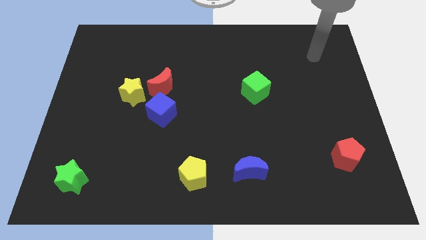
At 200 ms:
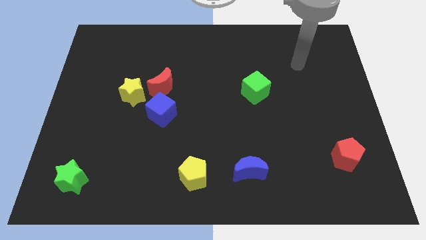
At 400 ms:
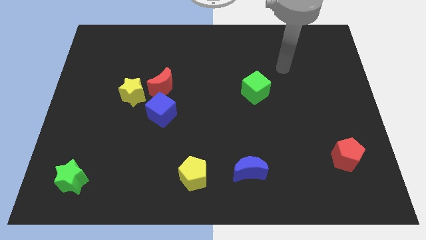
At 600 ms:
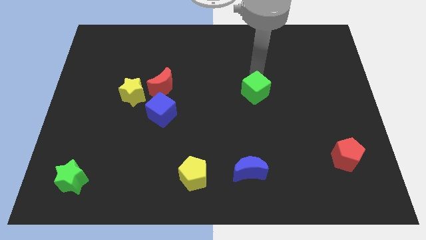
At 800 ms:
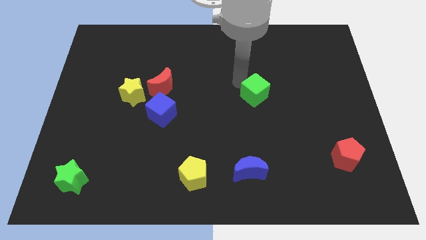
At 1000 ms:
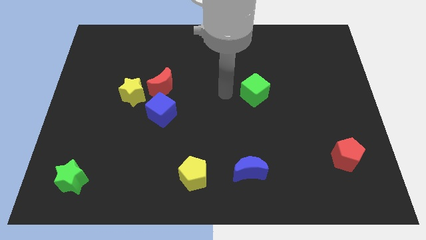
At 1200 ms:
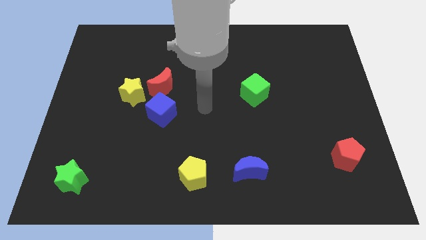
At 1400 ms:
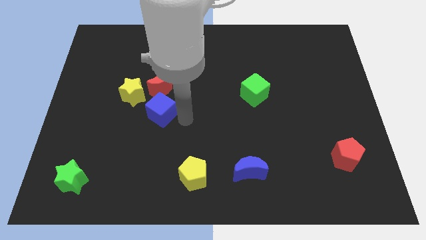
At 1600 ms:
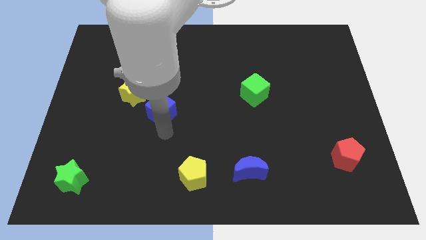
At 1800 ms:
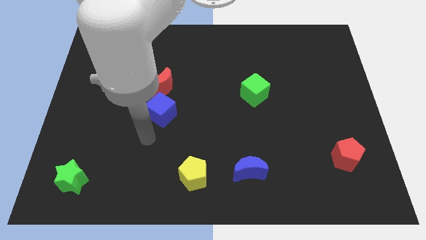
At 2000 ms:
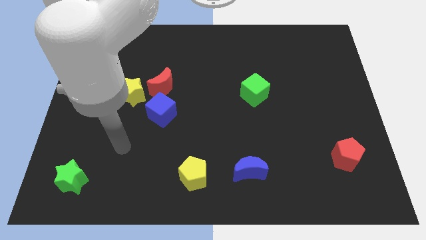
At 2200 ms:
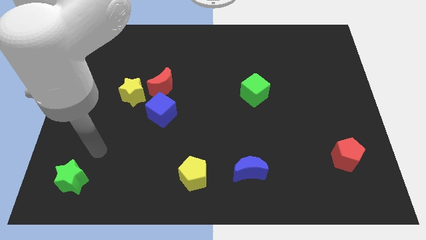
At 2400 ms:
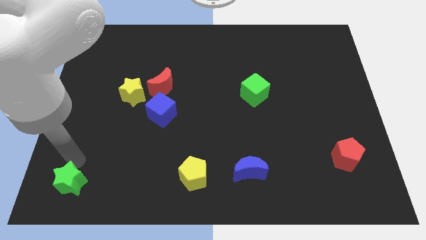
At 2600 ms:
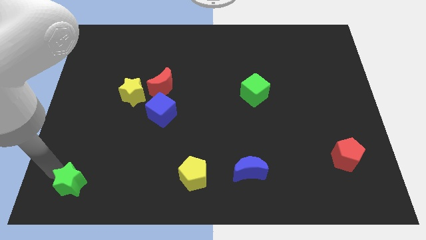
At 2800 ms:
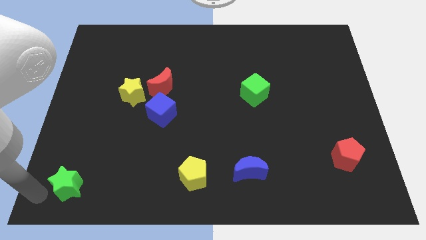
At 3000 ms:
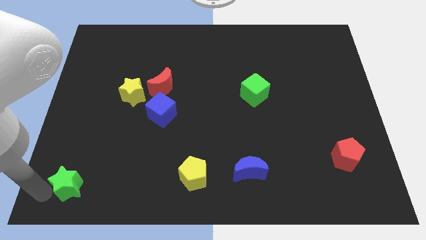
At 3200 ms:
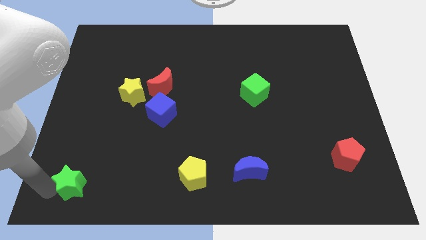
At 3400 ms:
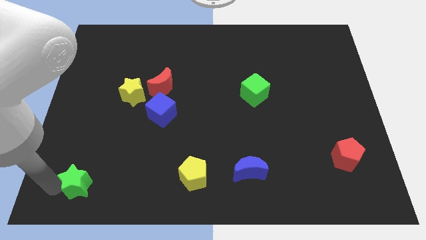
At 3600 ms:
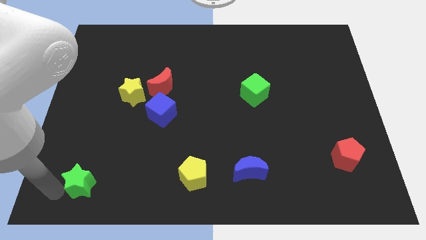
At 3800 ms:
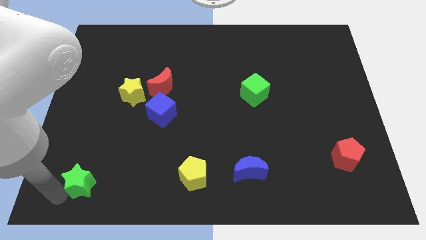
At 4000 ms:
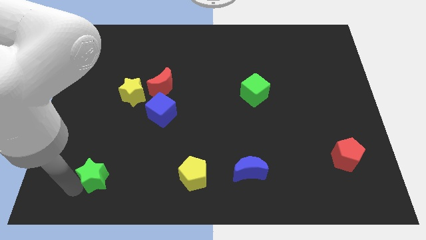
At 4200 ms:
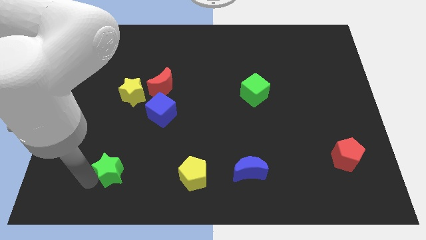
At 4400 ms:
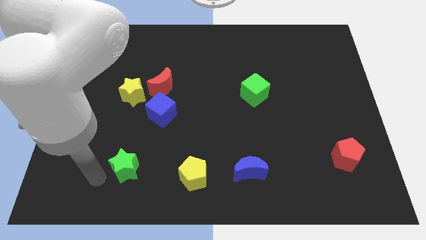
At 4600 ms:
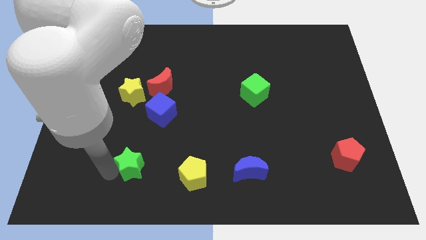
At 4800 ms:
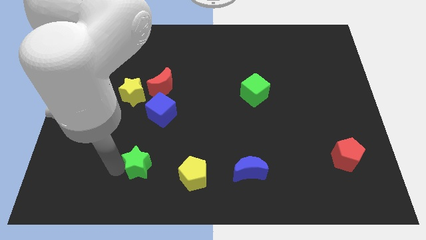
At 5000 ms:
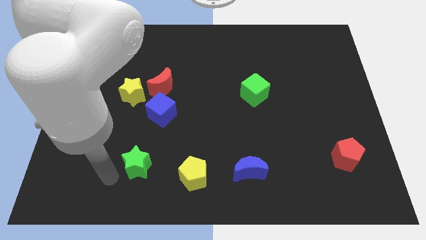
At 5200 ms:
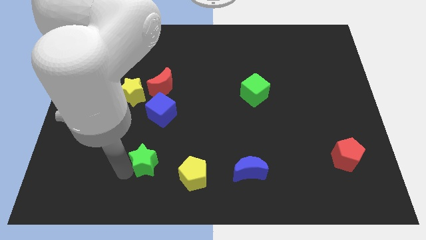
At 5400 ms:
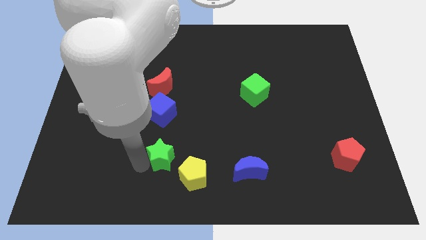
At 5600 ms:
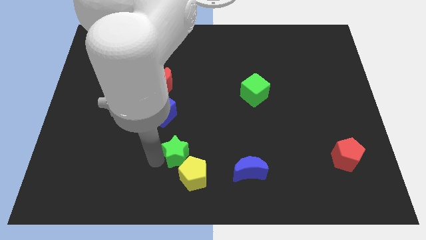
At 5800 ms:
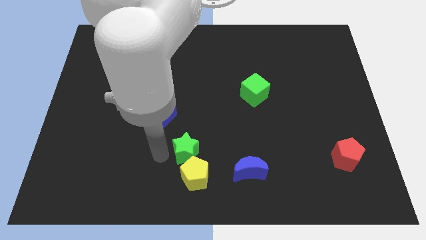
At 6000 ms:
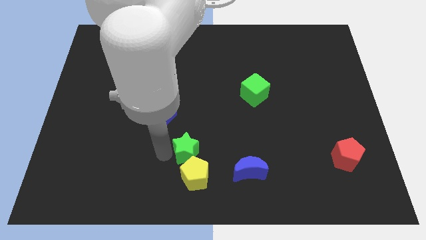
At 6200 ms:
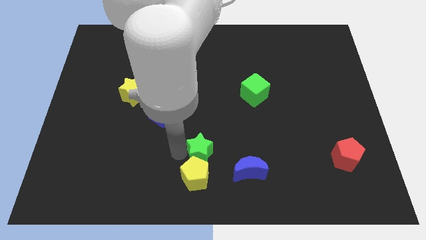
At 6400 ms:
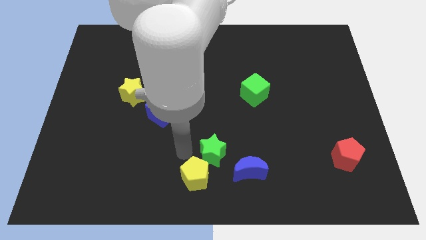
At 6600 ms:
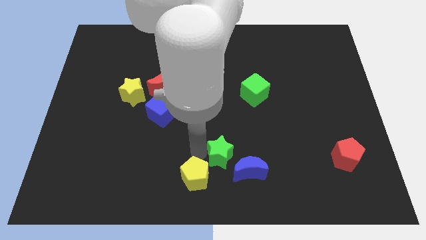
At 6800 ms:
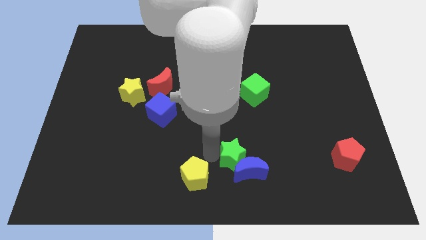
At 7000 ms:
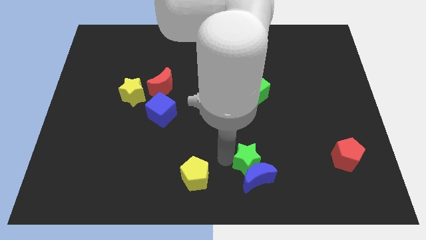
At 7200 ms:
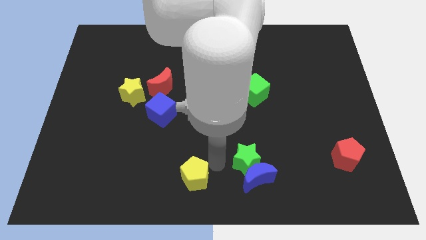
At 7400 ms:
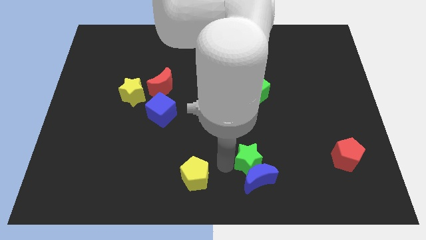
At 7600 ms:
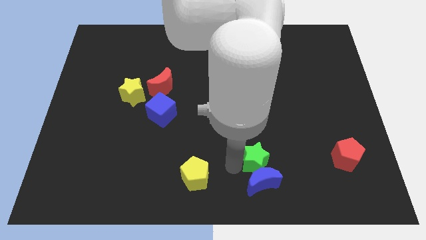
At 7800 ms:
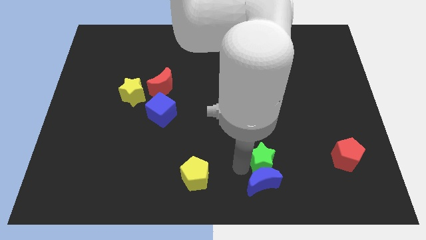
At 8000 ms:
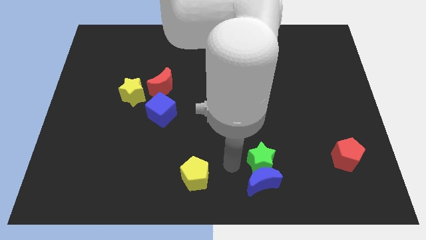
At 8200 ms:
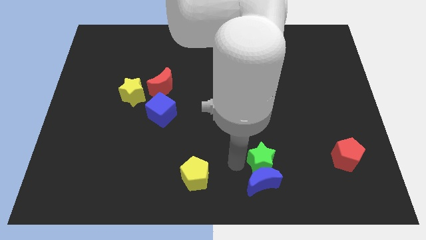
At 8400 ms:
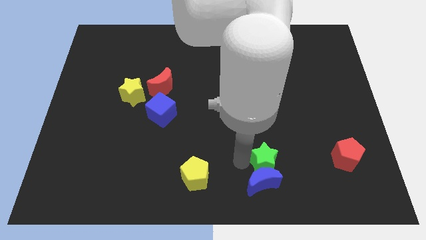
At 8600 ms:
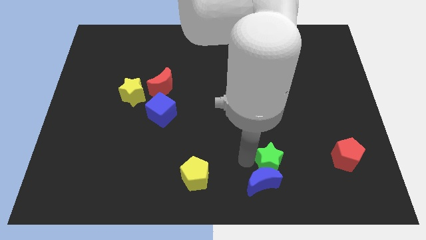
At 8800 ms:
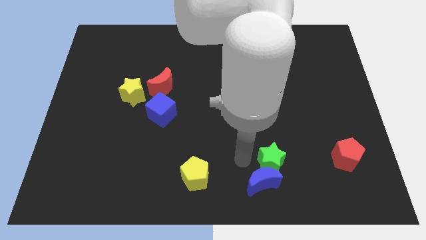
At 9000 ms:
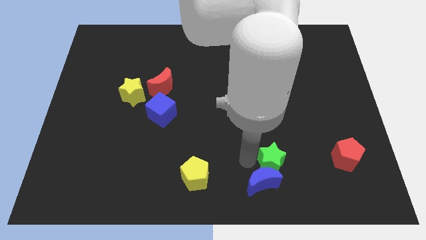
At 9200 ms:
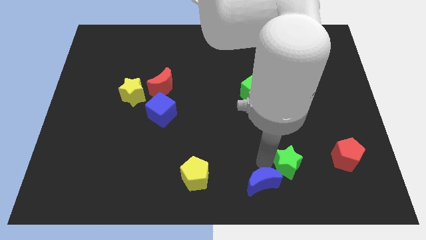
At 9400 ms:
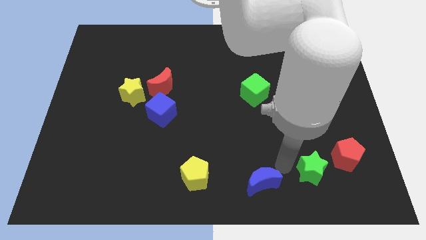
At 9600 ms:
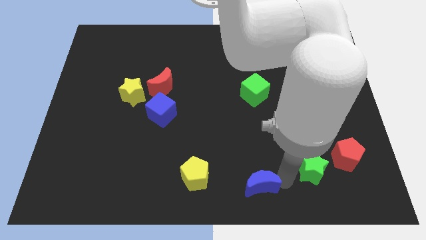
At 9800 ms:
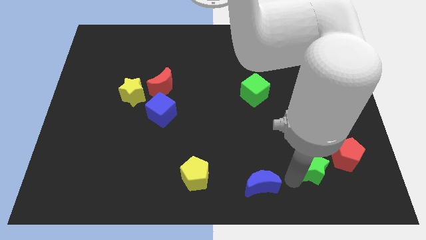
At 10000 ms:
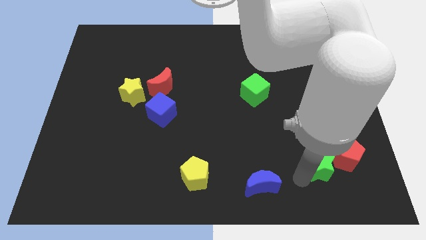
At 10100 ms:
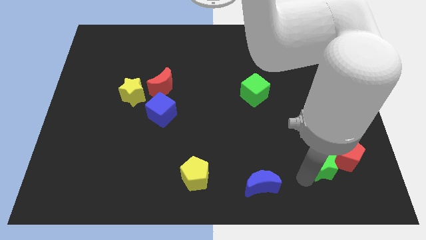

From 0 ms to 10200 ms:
push the green star close to the red pentagon

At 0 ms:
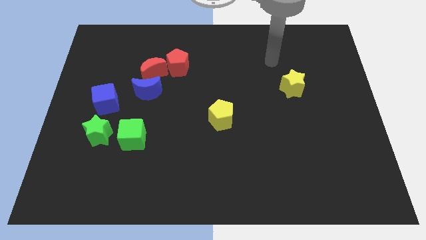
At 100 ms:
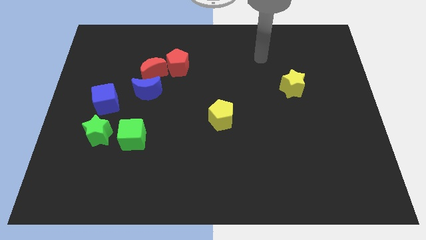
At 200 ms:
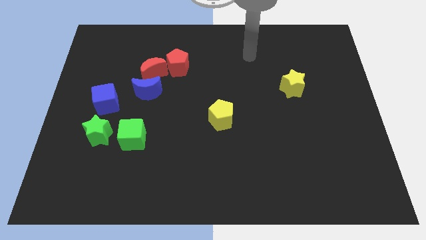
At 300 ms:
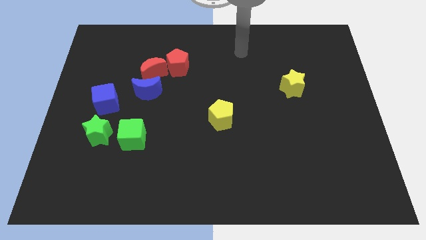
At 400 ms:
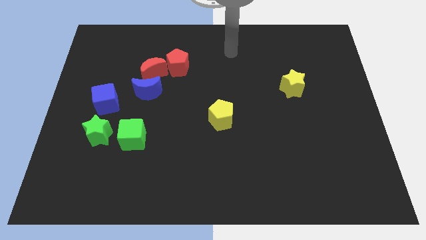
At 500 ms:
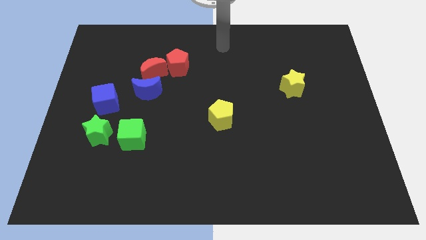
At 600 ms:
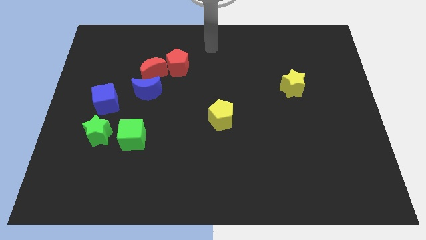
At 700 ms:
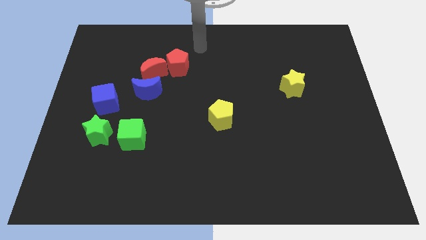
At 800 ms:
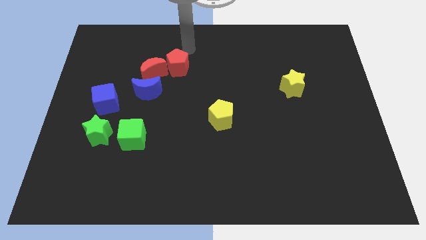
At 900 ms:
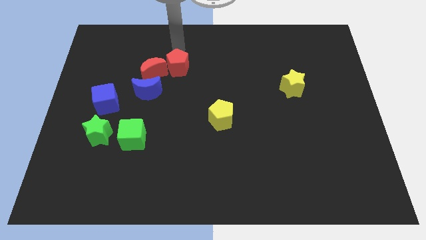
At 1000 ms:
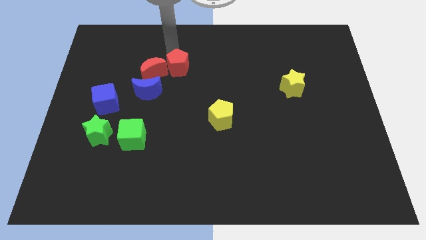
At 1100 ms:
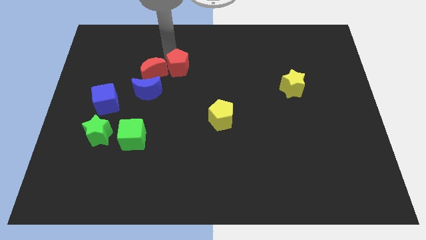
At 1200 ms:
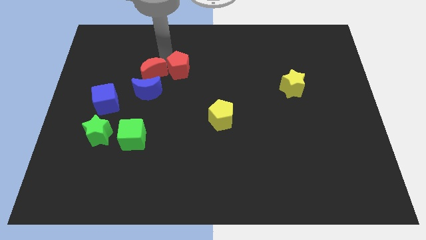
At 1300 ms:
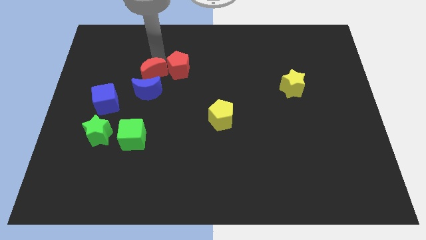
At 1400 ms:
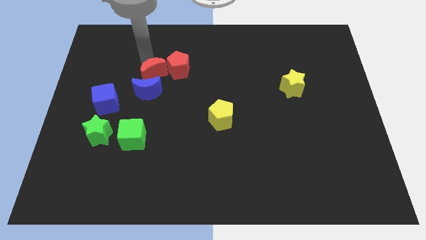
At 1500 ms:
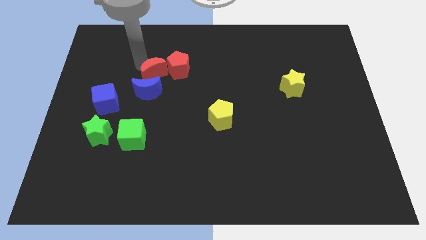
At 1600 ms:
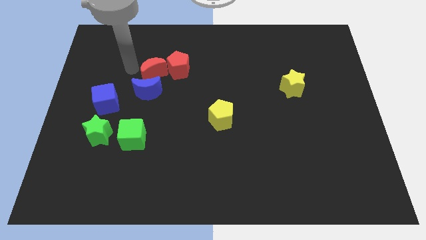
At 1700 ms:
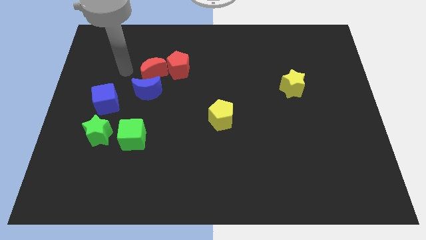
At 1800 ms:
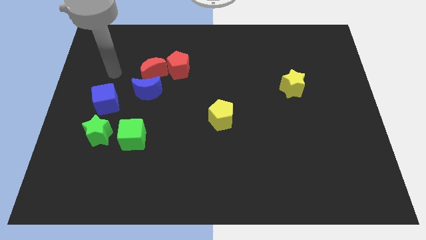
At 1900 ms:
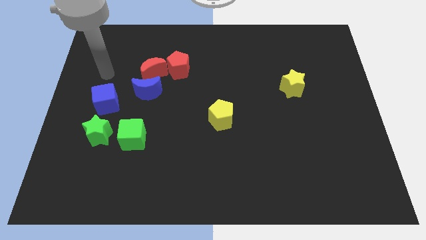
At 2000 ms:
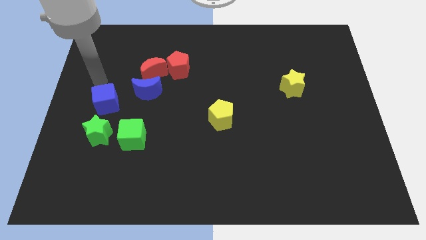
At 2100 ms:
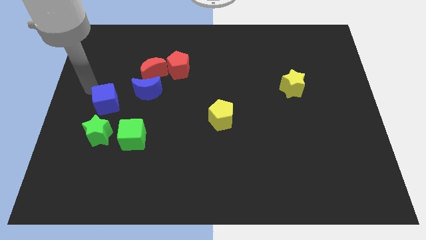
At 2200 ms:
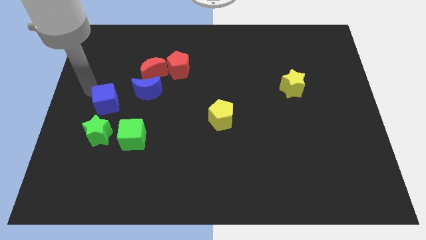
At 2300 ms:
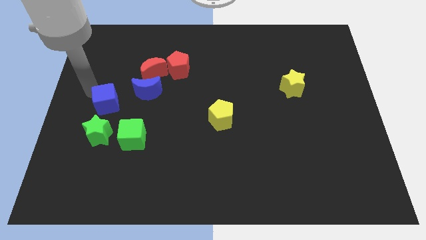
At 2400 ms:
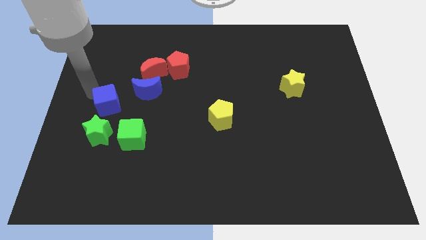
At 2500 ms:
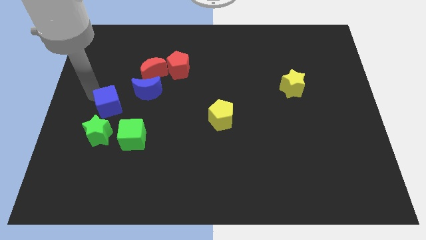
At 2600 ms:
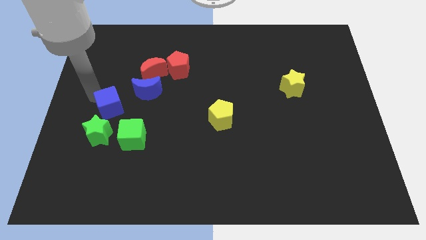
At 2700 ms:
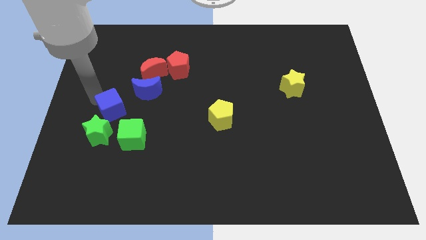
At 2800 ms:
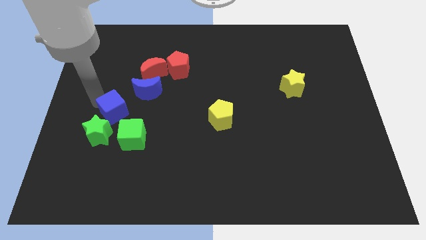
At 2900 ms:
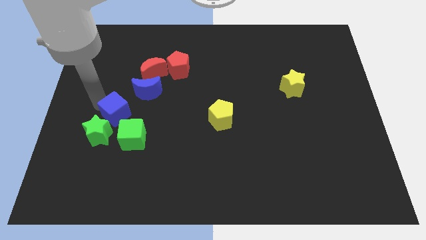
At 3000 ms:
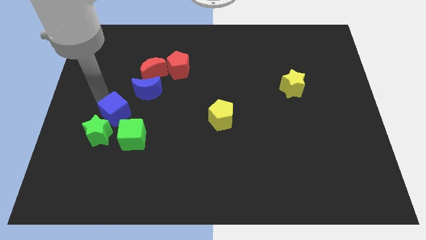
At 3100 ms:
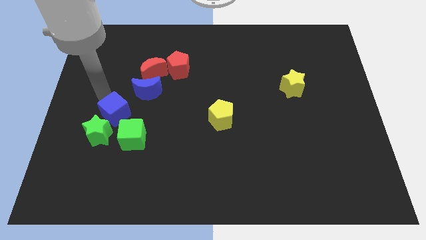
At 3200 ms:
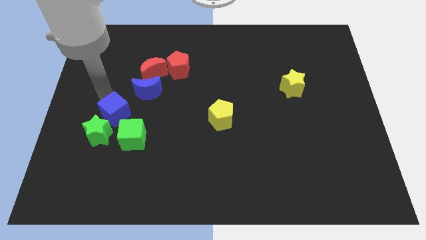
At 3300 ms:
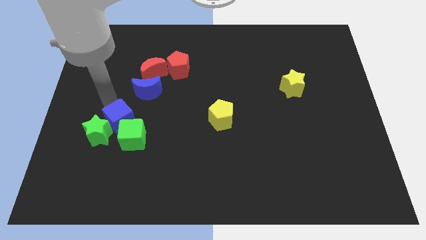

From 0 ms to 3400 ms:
slide the blue cube towards the green cube
